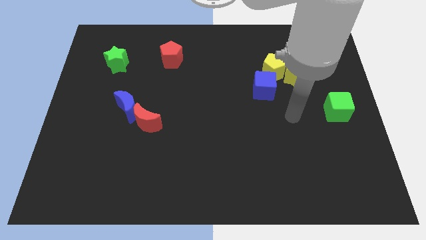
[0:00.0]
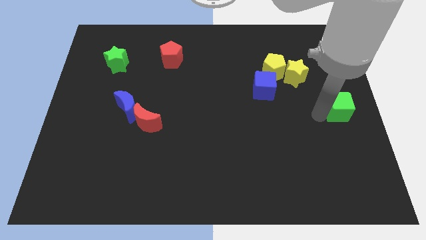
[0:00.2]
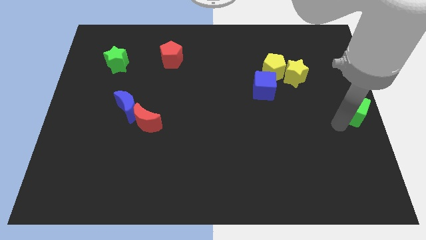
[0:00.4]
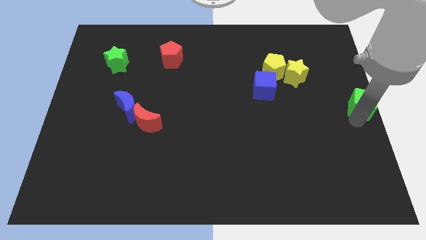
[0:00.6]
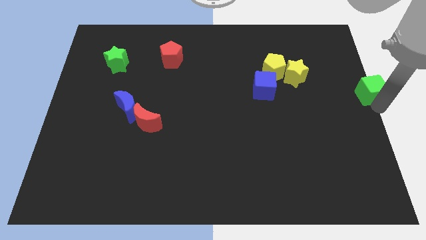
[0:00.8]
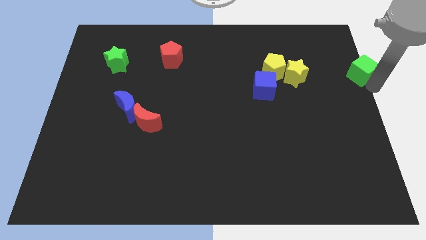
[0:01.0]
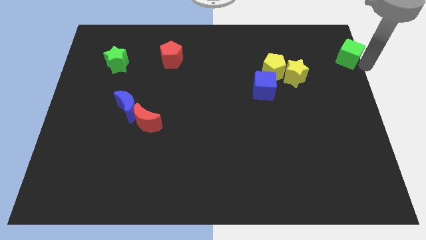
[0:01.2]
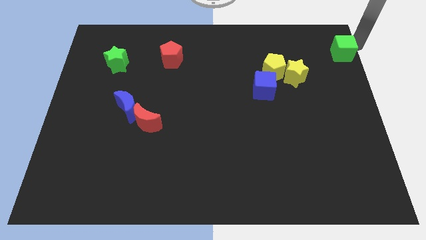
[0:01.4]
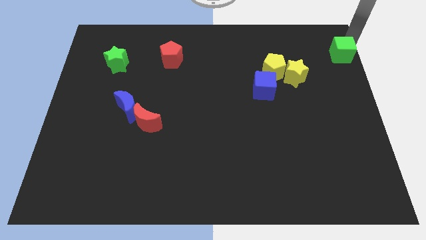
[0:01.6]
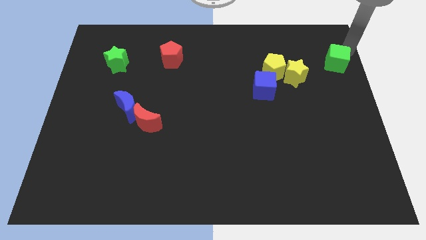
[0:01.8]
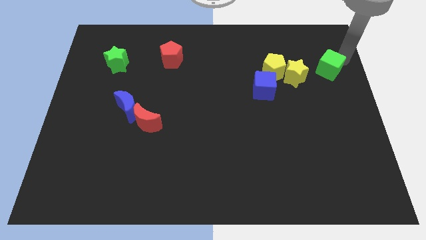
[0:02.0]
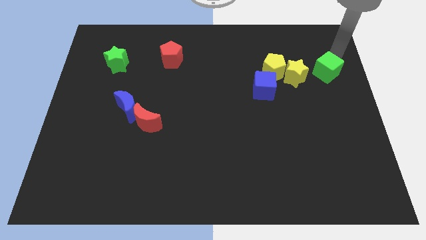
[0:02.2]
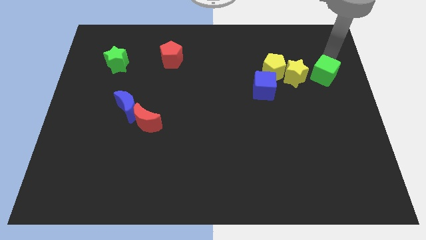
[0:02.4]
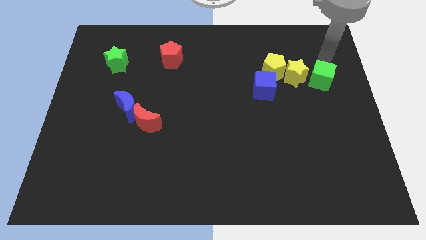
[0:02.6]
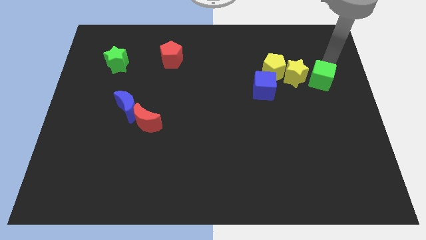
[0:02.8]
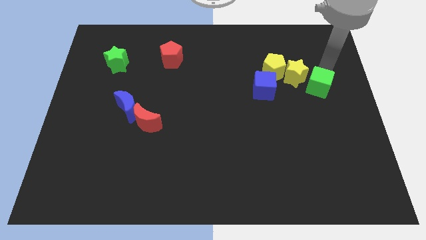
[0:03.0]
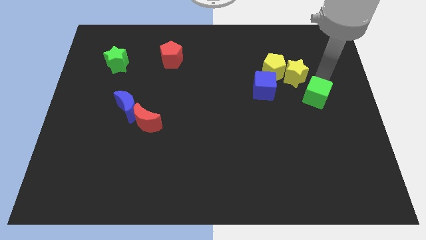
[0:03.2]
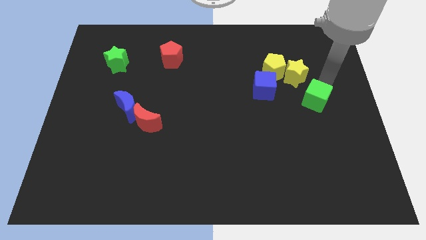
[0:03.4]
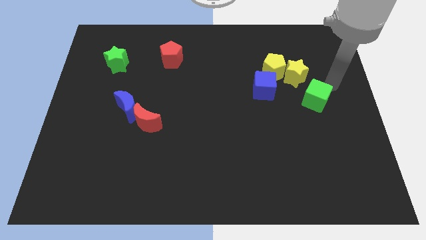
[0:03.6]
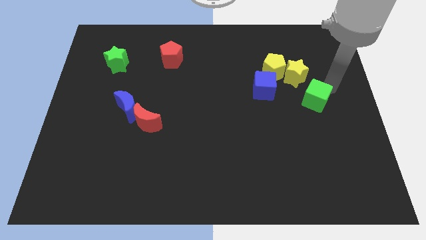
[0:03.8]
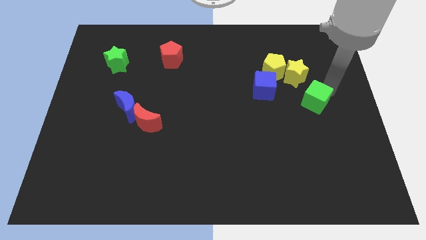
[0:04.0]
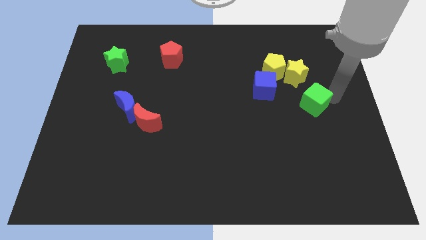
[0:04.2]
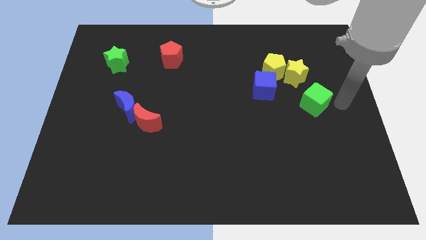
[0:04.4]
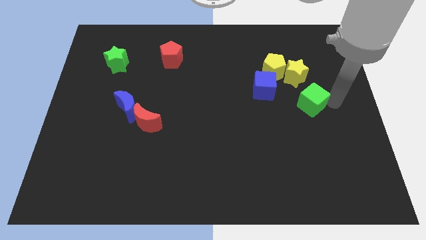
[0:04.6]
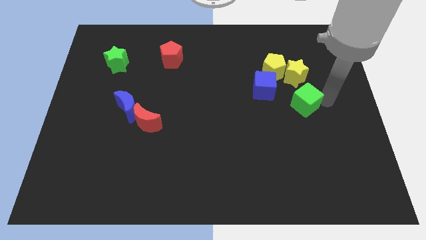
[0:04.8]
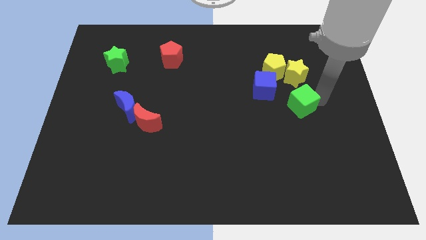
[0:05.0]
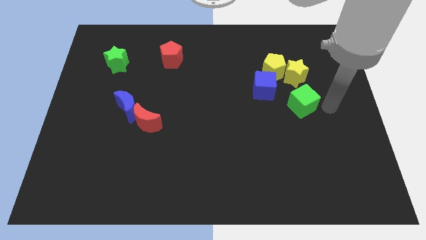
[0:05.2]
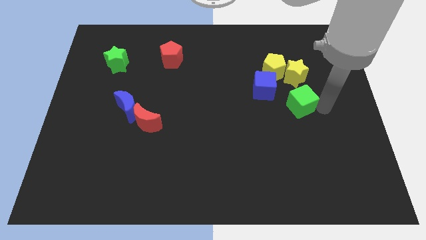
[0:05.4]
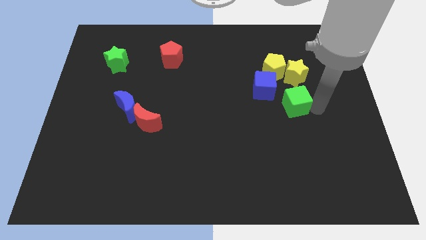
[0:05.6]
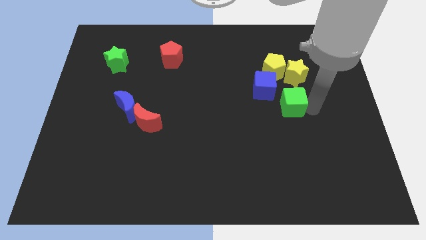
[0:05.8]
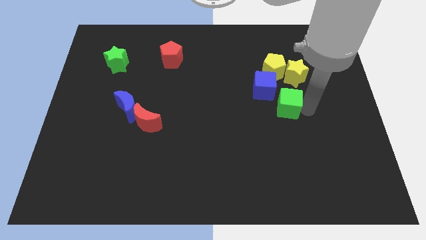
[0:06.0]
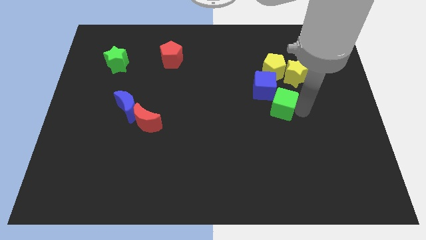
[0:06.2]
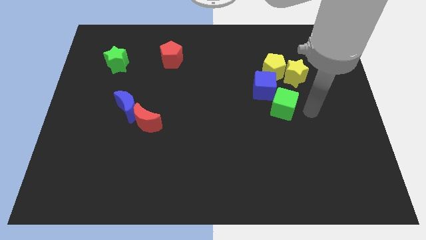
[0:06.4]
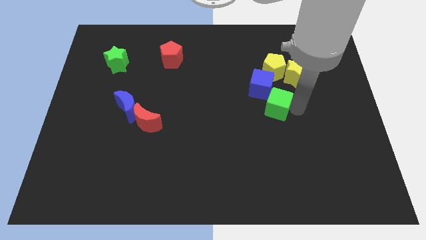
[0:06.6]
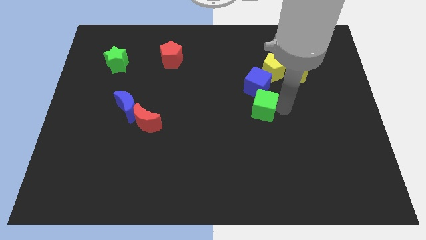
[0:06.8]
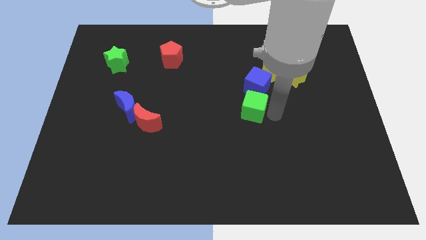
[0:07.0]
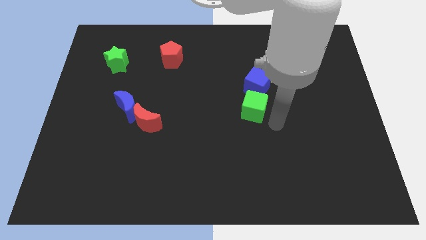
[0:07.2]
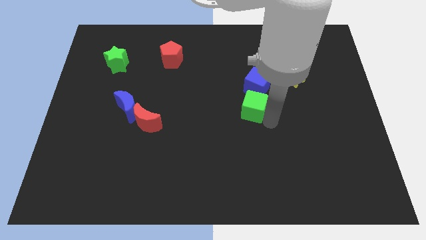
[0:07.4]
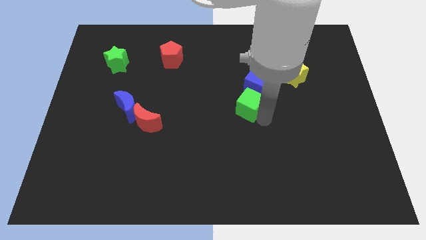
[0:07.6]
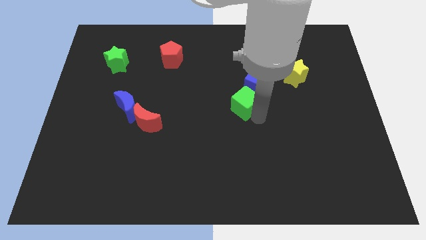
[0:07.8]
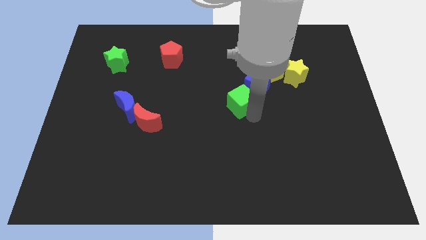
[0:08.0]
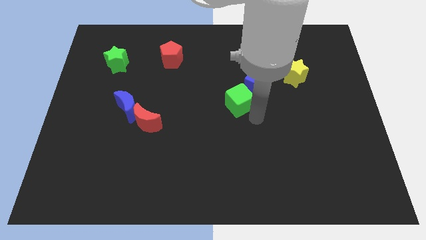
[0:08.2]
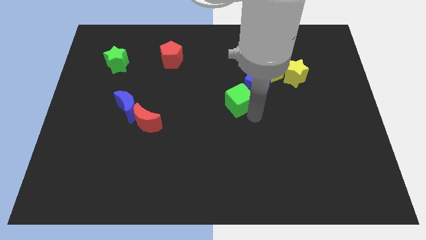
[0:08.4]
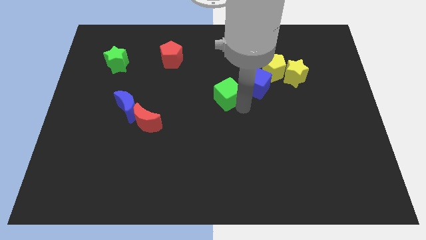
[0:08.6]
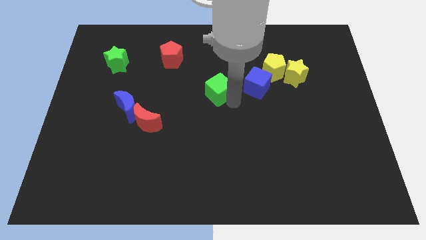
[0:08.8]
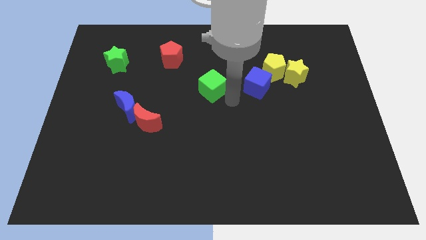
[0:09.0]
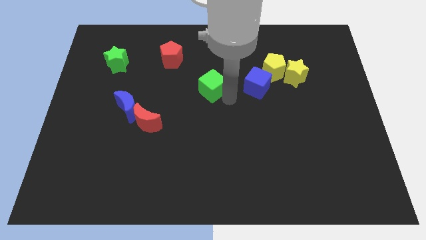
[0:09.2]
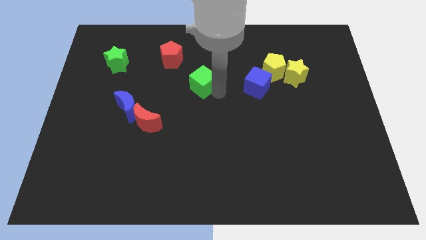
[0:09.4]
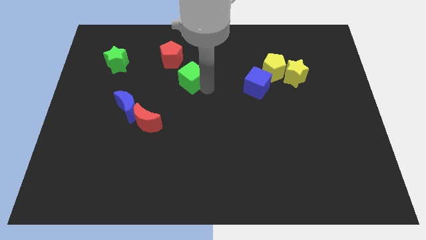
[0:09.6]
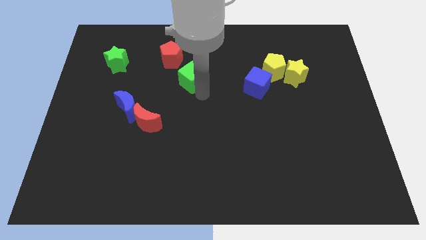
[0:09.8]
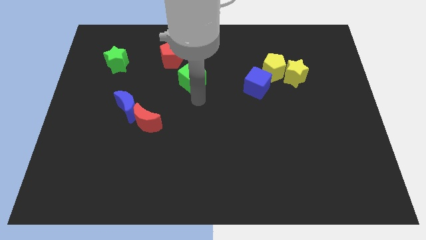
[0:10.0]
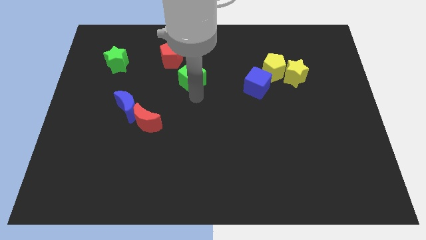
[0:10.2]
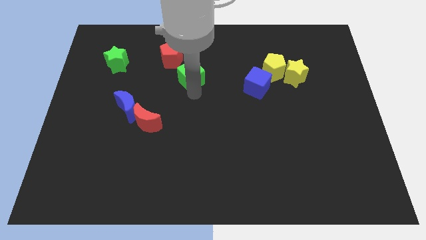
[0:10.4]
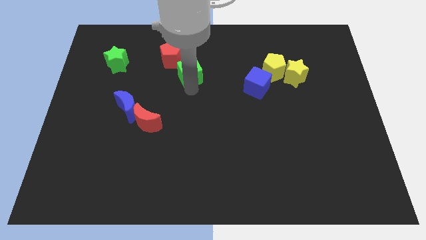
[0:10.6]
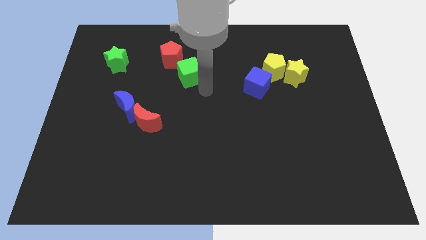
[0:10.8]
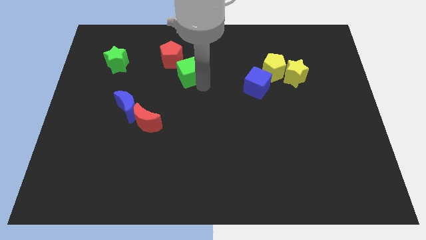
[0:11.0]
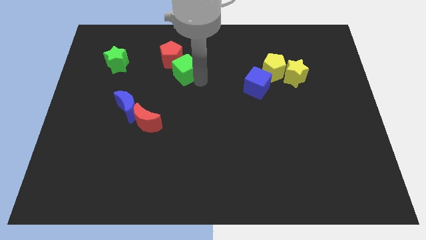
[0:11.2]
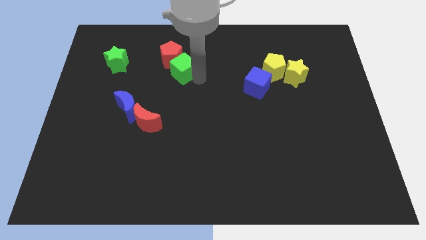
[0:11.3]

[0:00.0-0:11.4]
push the green cube to the red pentagon

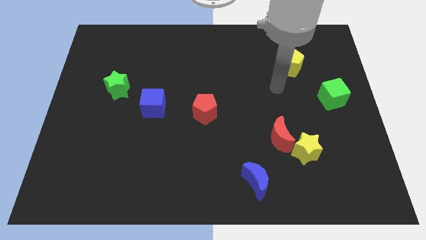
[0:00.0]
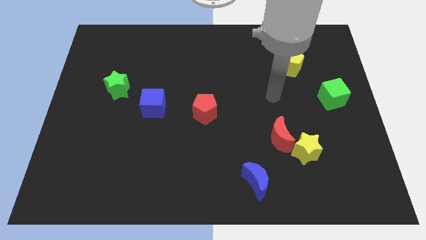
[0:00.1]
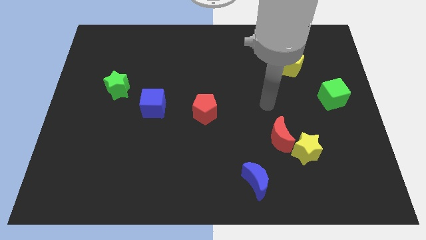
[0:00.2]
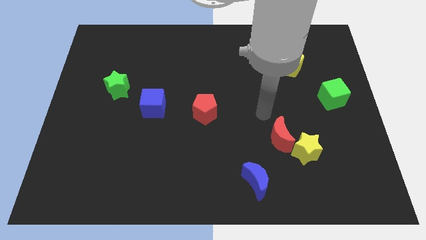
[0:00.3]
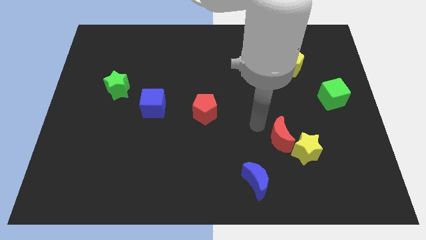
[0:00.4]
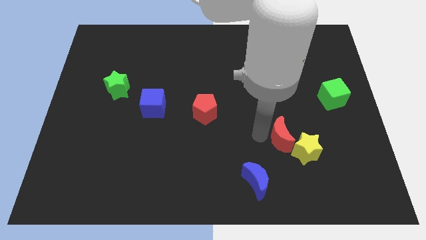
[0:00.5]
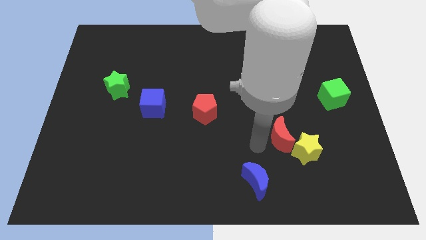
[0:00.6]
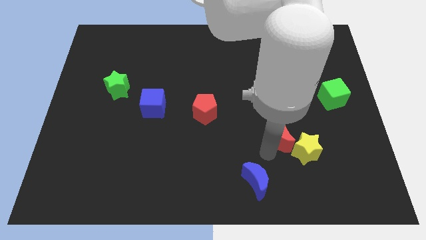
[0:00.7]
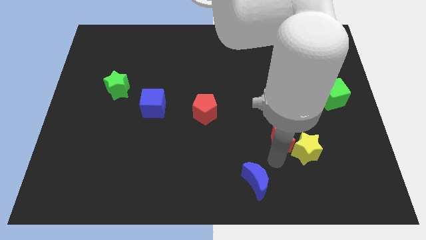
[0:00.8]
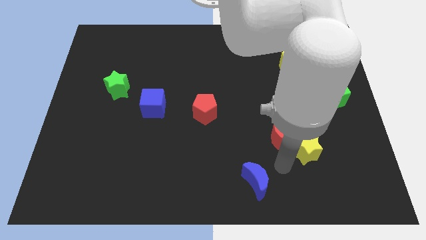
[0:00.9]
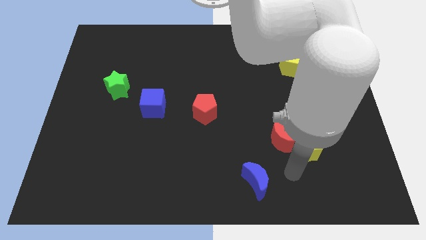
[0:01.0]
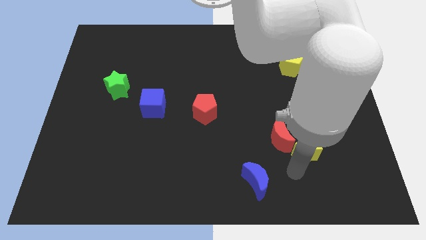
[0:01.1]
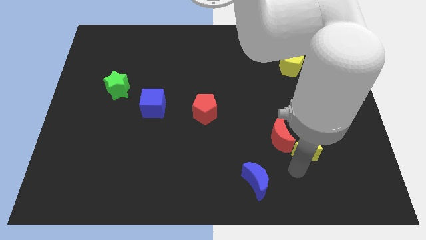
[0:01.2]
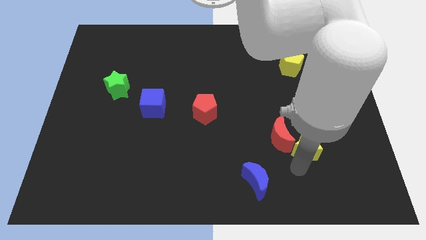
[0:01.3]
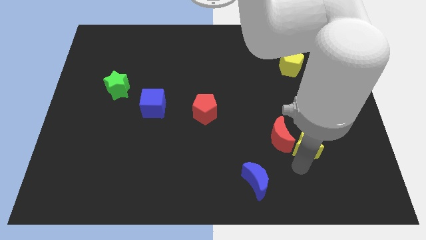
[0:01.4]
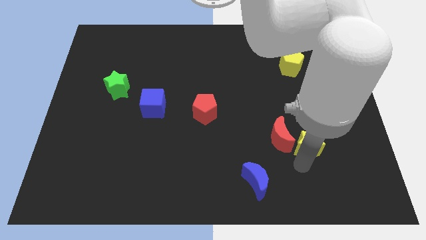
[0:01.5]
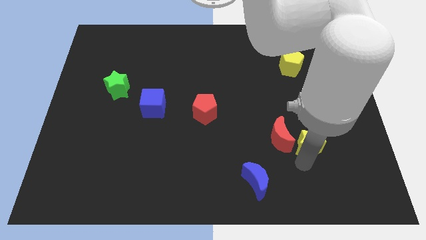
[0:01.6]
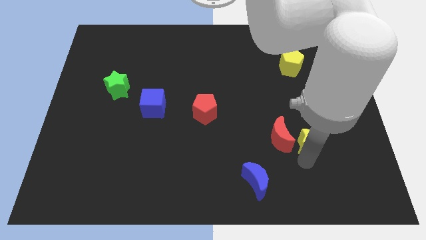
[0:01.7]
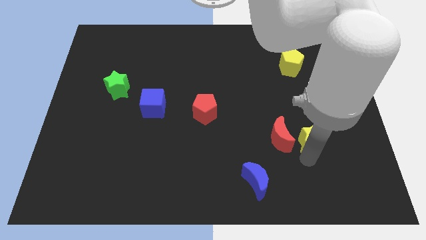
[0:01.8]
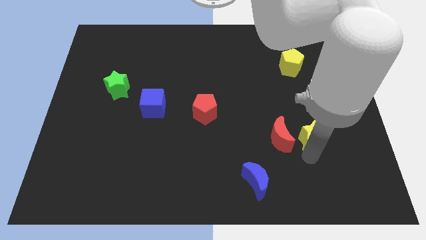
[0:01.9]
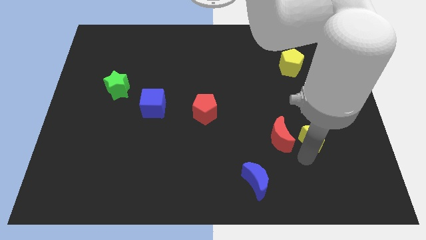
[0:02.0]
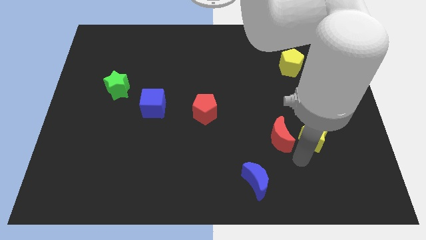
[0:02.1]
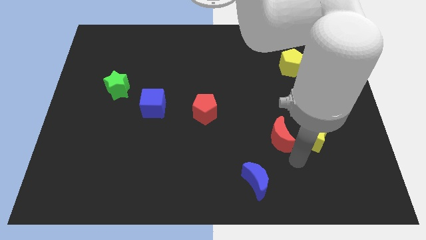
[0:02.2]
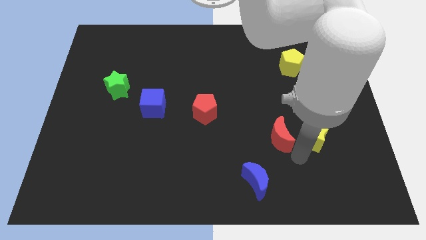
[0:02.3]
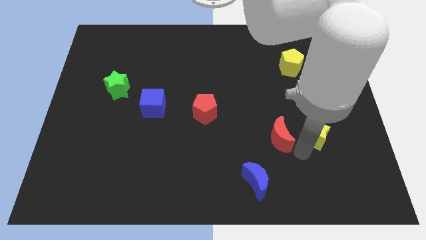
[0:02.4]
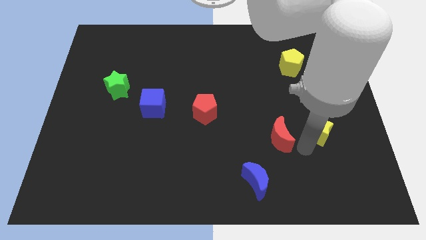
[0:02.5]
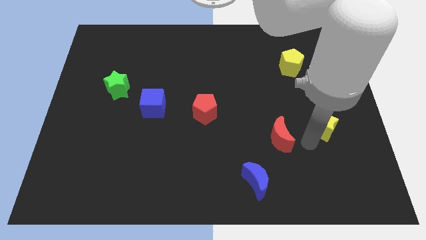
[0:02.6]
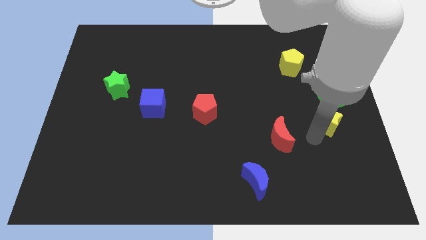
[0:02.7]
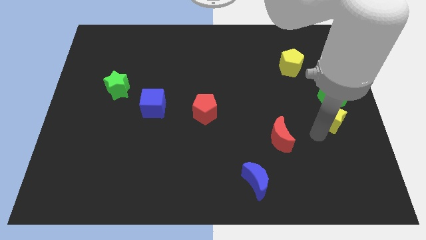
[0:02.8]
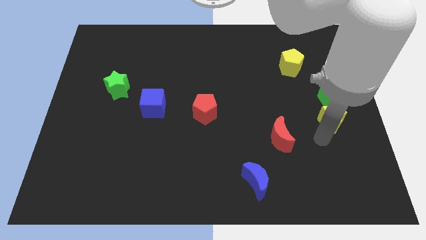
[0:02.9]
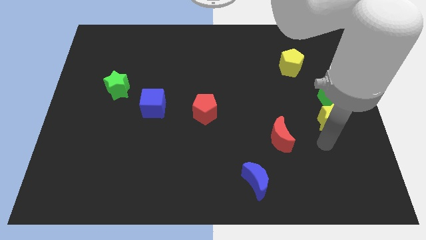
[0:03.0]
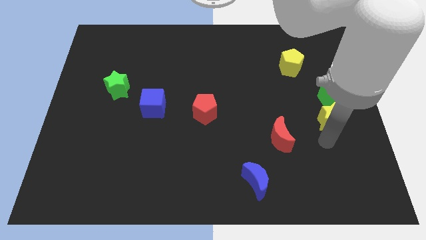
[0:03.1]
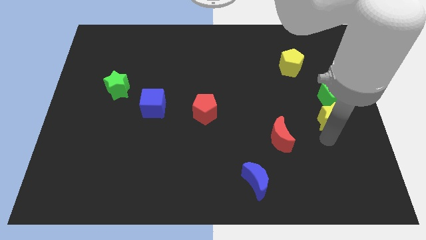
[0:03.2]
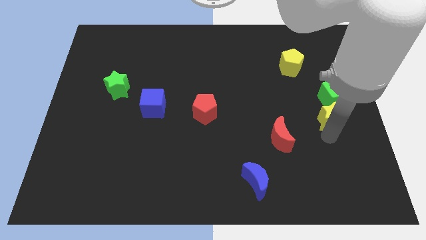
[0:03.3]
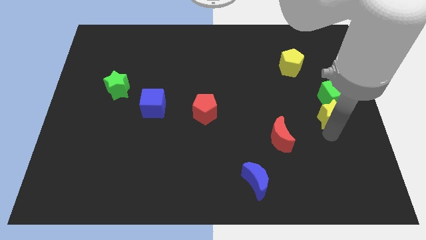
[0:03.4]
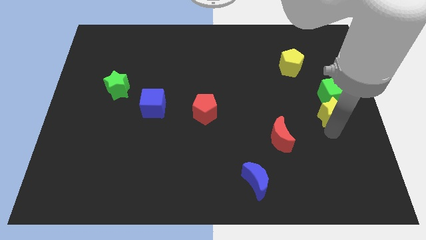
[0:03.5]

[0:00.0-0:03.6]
push the yellow star towards the green cube
